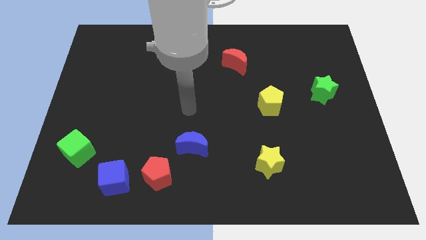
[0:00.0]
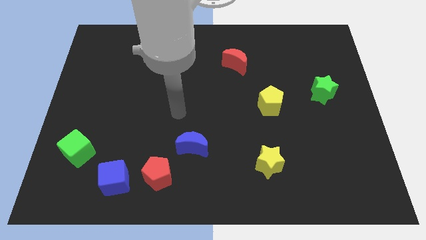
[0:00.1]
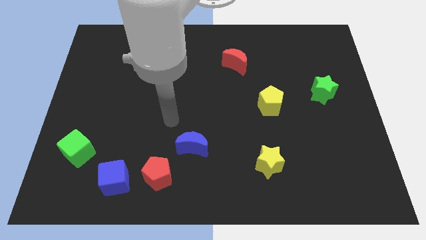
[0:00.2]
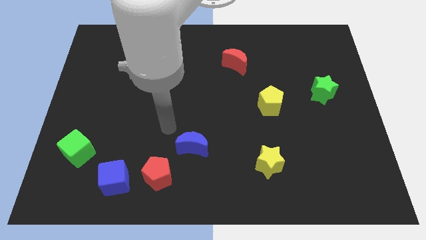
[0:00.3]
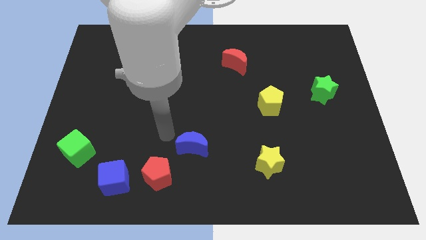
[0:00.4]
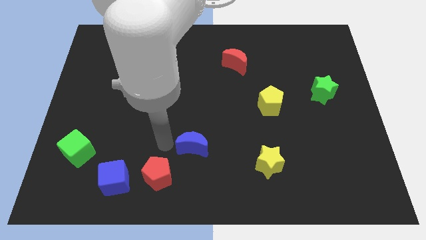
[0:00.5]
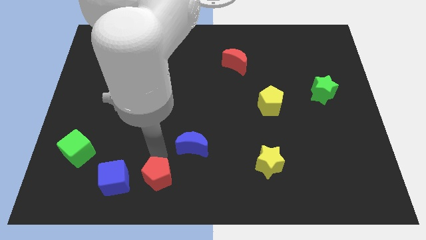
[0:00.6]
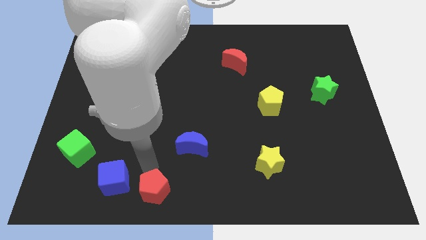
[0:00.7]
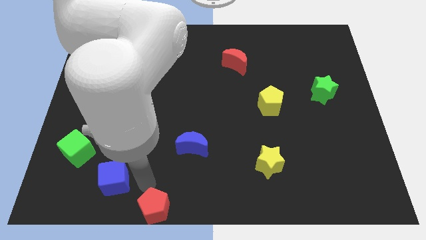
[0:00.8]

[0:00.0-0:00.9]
separate the blue cube from the red pentagon
